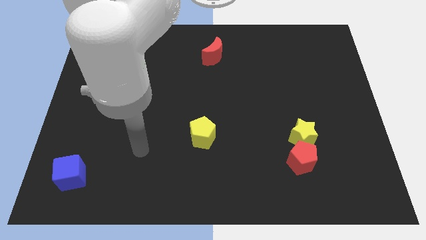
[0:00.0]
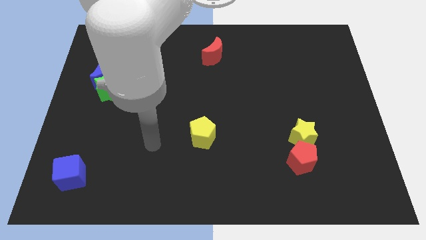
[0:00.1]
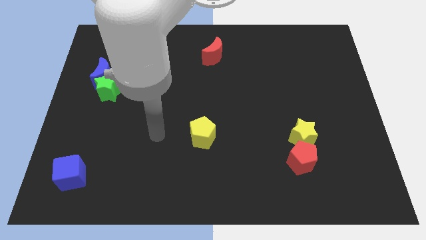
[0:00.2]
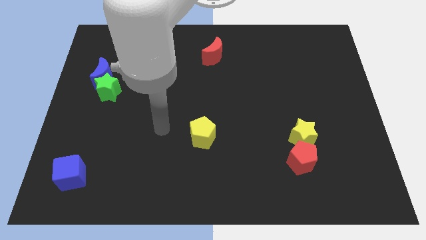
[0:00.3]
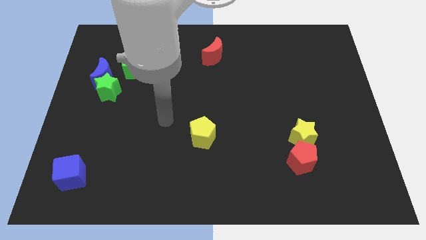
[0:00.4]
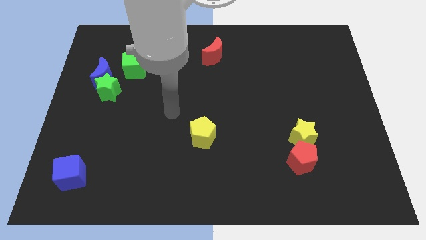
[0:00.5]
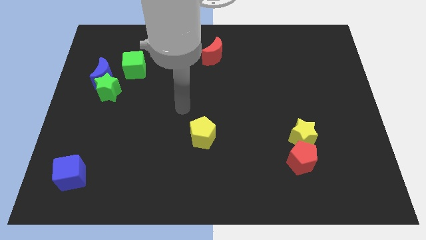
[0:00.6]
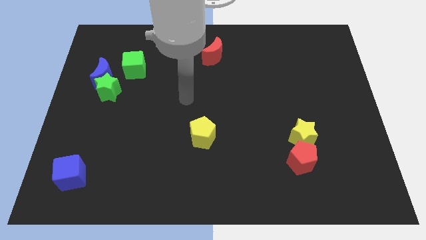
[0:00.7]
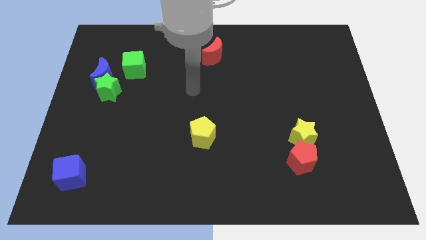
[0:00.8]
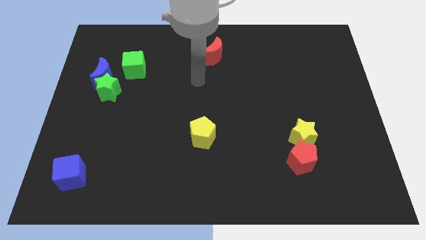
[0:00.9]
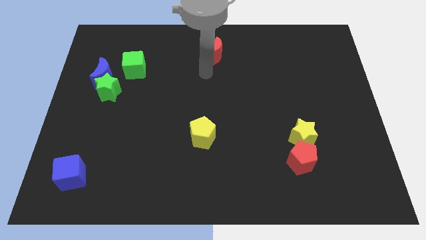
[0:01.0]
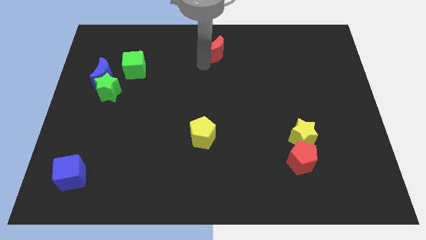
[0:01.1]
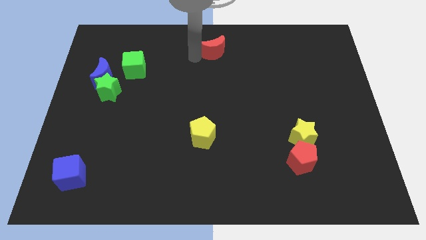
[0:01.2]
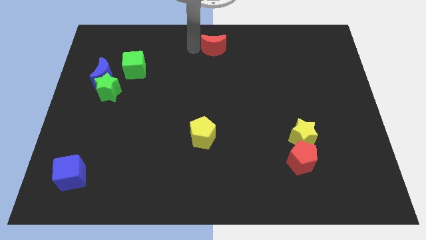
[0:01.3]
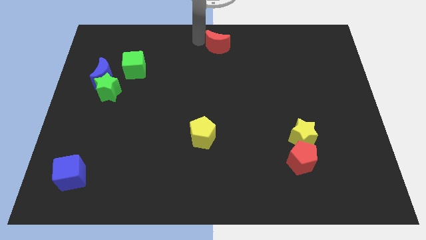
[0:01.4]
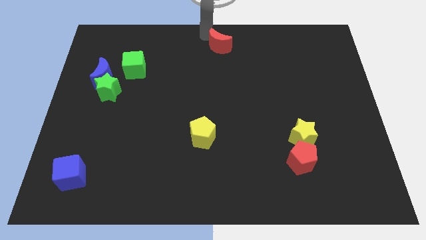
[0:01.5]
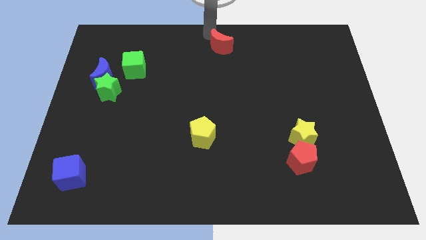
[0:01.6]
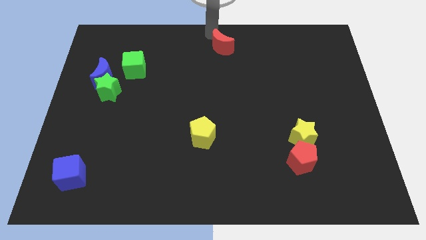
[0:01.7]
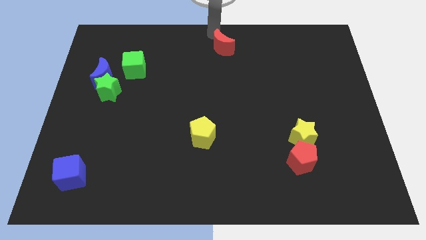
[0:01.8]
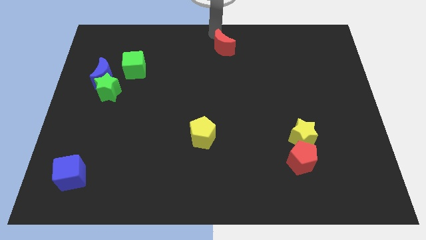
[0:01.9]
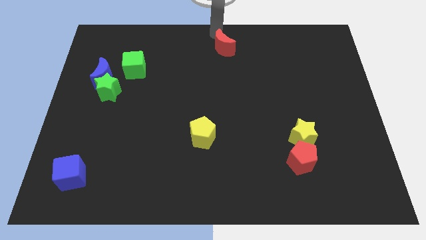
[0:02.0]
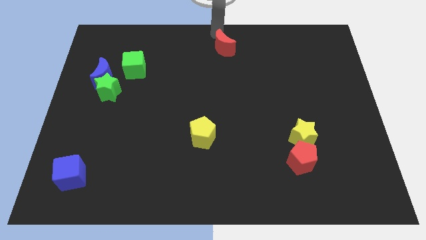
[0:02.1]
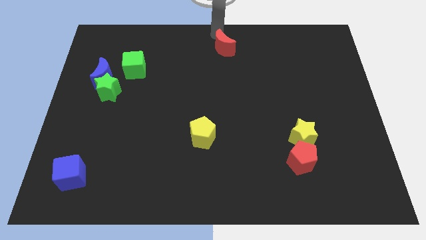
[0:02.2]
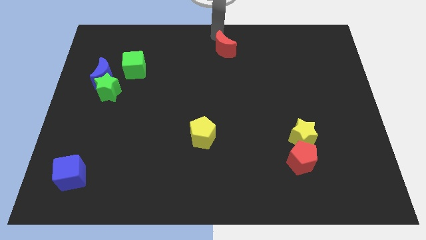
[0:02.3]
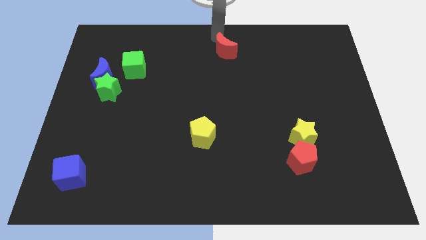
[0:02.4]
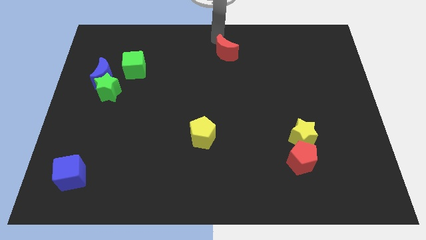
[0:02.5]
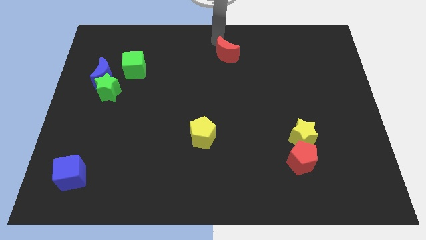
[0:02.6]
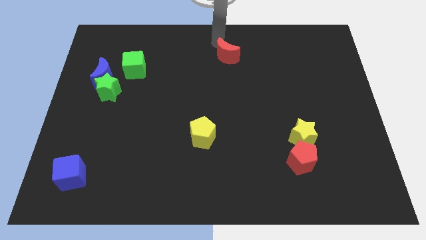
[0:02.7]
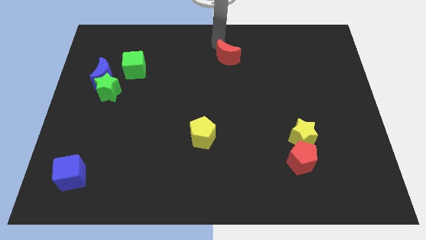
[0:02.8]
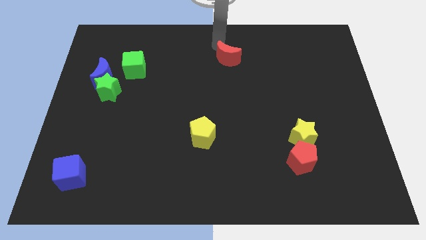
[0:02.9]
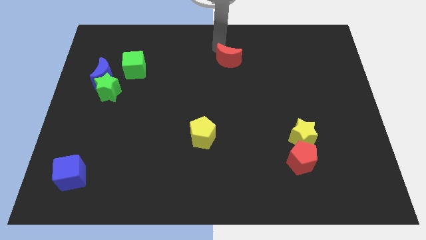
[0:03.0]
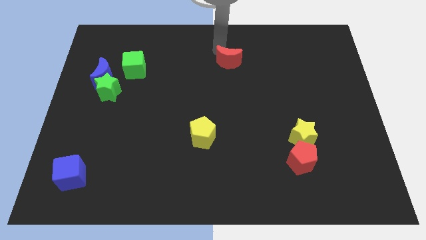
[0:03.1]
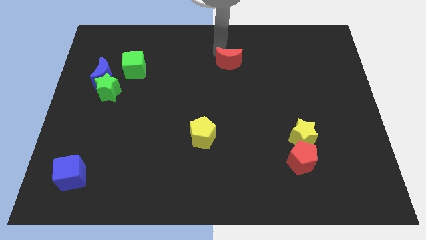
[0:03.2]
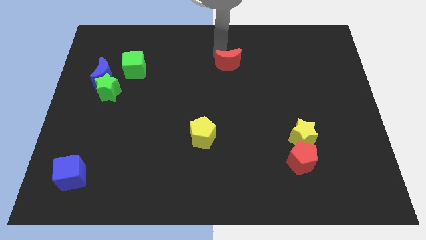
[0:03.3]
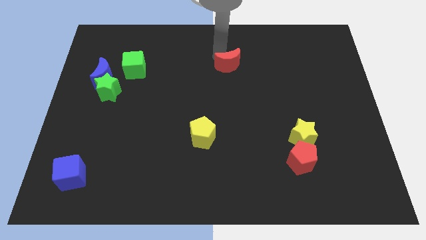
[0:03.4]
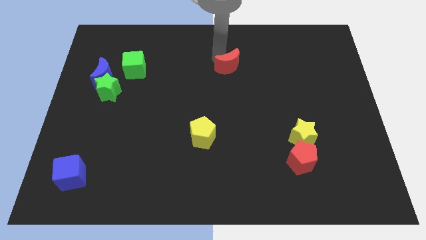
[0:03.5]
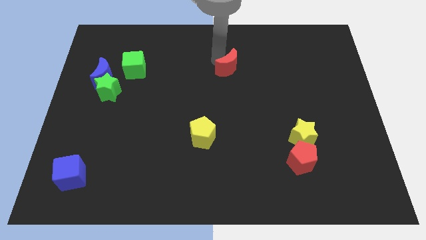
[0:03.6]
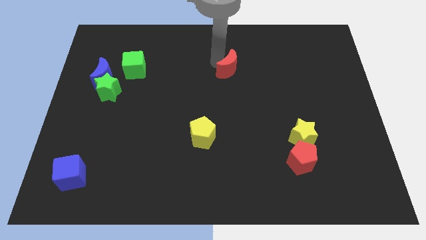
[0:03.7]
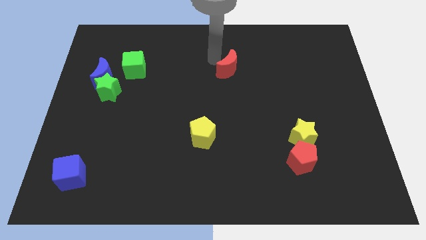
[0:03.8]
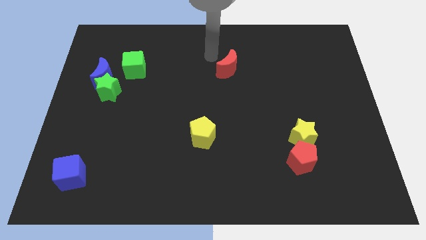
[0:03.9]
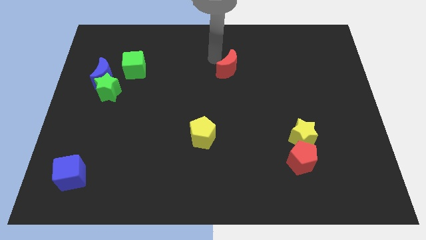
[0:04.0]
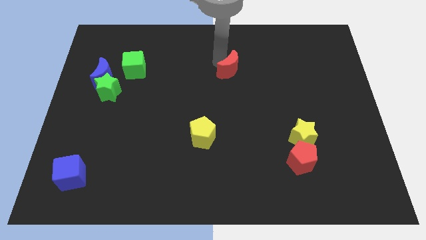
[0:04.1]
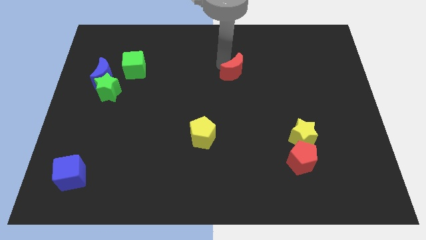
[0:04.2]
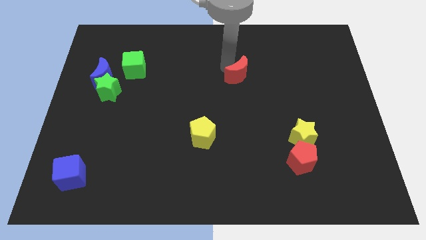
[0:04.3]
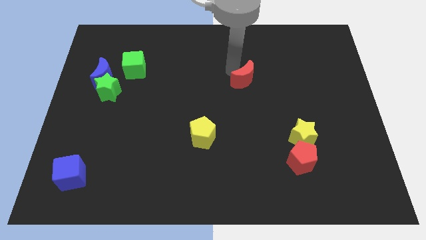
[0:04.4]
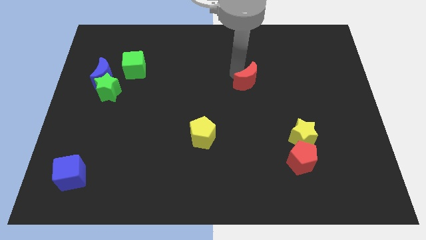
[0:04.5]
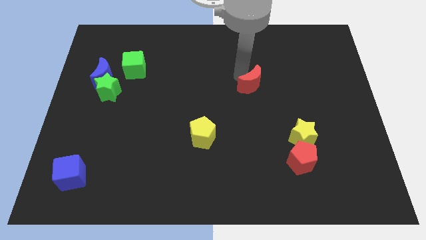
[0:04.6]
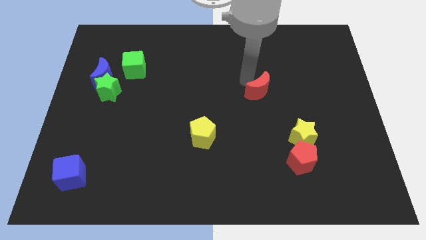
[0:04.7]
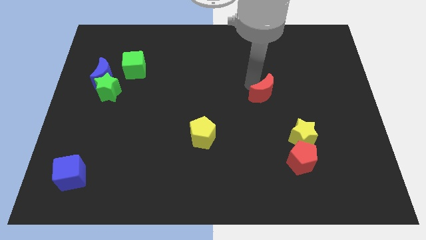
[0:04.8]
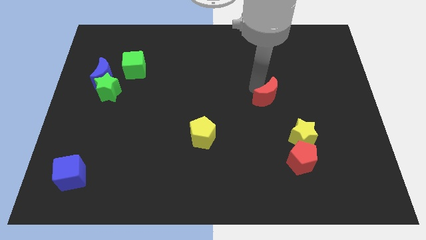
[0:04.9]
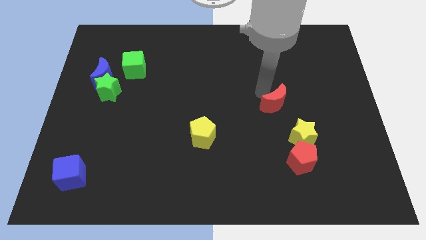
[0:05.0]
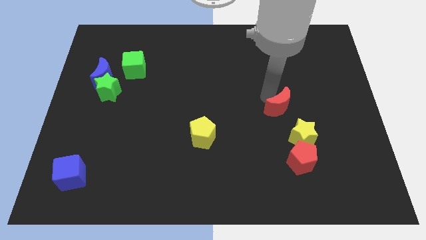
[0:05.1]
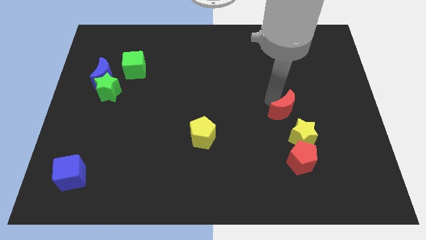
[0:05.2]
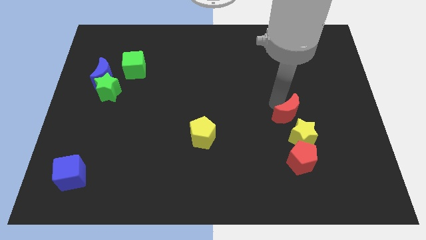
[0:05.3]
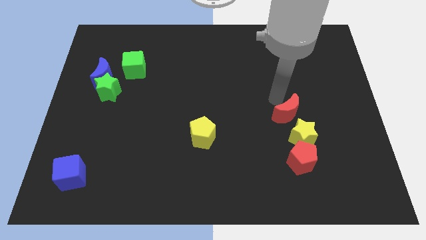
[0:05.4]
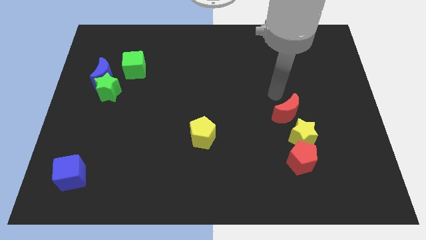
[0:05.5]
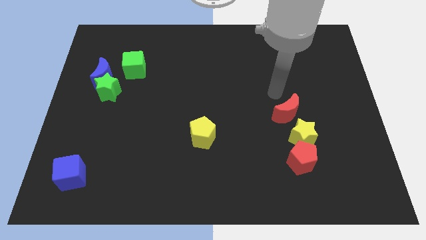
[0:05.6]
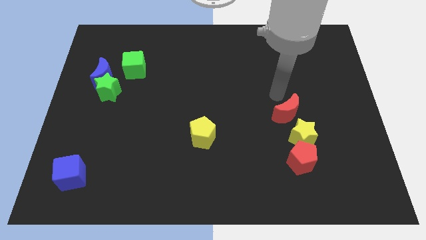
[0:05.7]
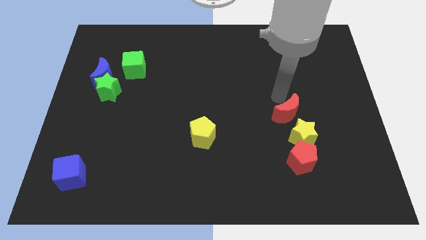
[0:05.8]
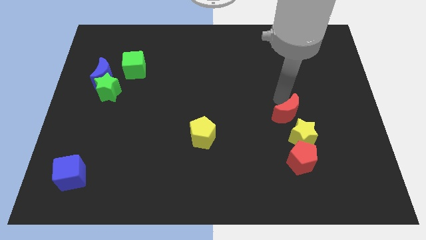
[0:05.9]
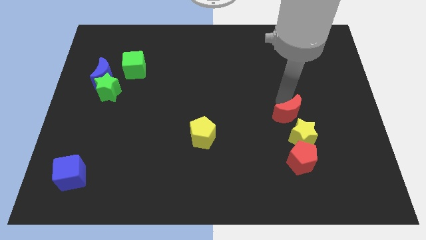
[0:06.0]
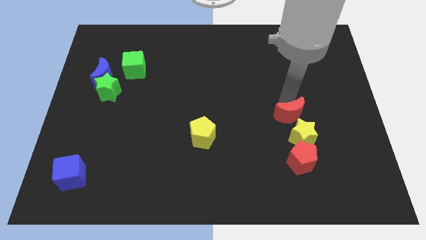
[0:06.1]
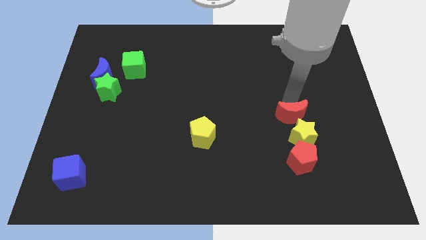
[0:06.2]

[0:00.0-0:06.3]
slide the red moon close to the yellow star

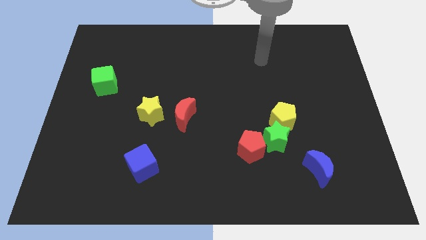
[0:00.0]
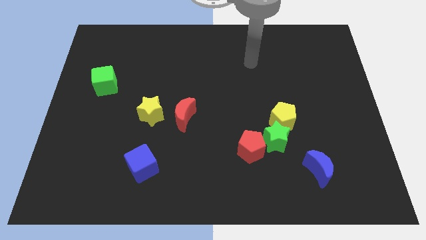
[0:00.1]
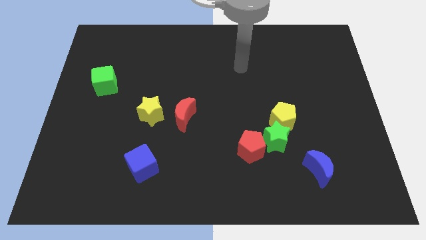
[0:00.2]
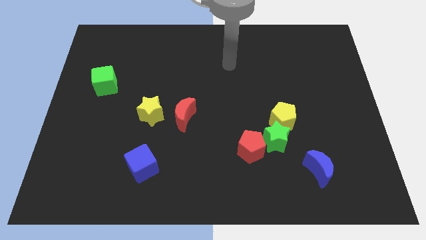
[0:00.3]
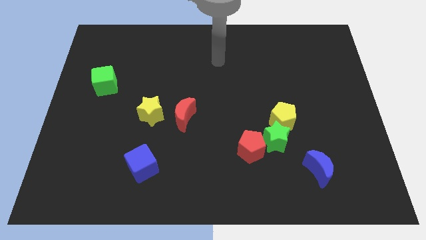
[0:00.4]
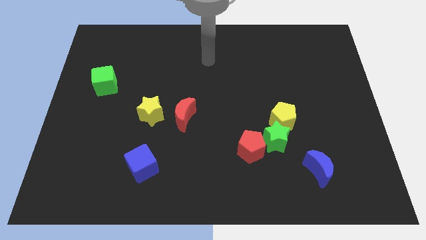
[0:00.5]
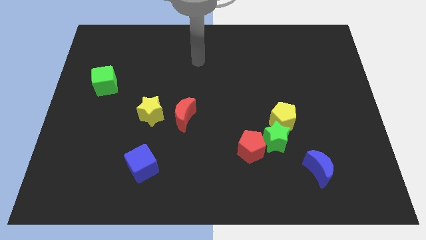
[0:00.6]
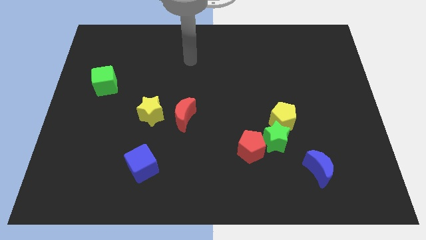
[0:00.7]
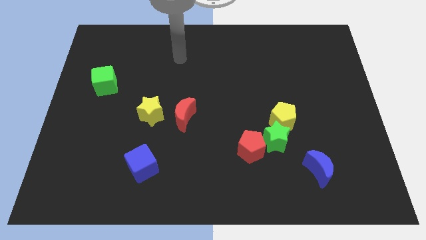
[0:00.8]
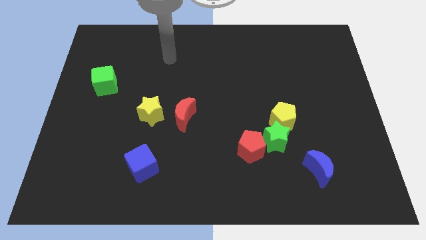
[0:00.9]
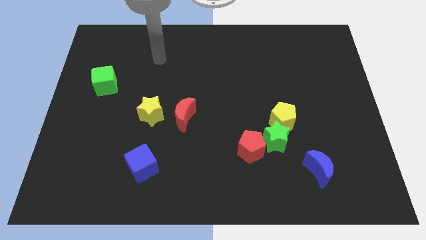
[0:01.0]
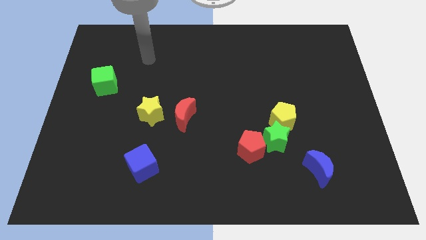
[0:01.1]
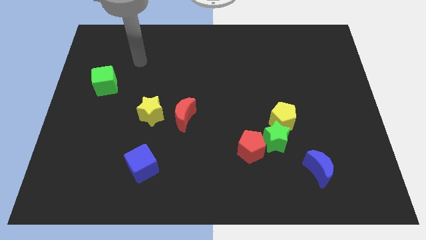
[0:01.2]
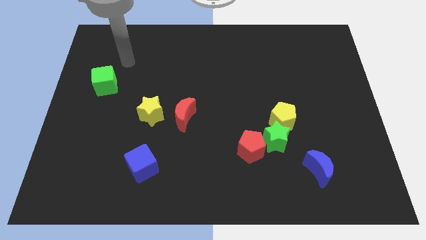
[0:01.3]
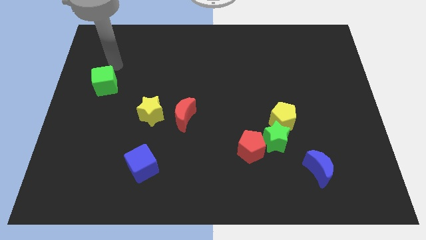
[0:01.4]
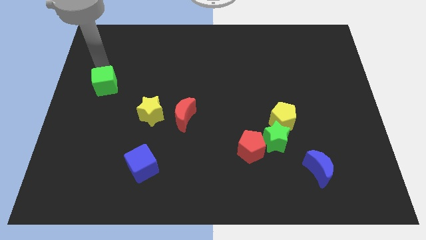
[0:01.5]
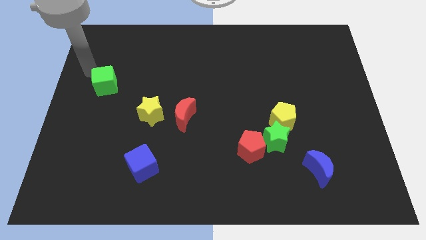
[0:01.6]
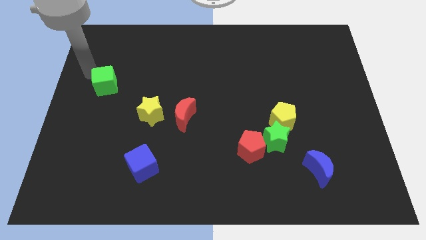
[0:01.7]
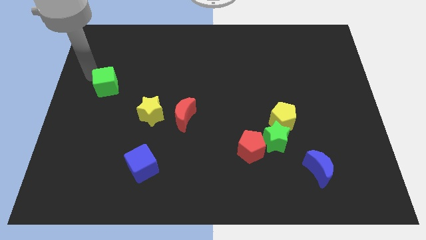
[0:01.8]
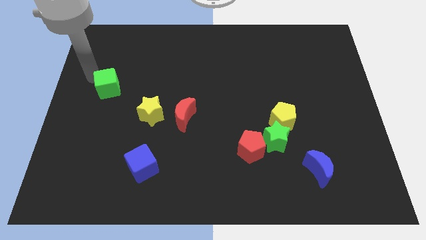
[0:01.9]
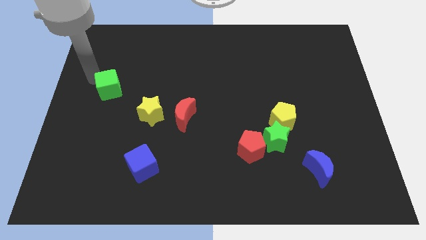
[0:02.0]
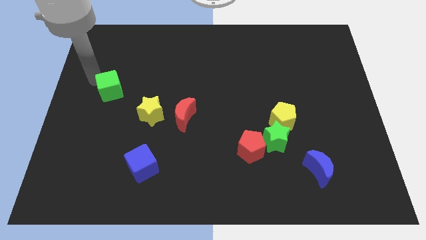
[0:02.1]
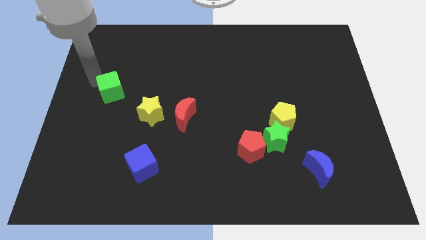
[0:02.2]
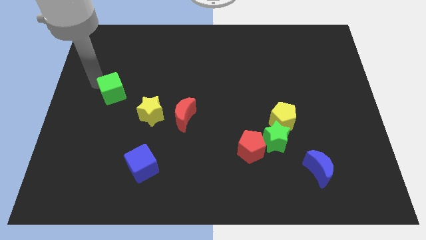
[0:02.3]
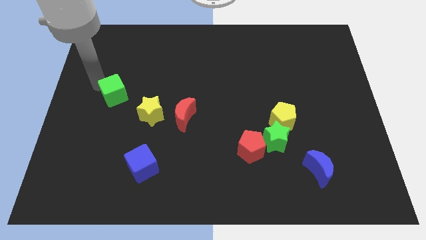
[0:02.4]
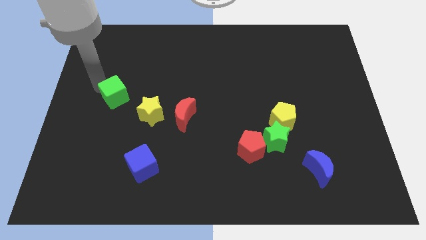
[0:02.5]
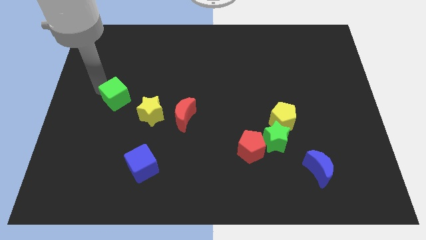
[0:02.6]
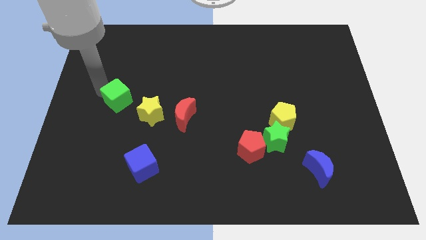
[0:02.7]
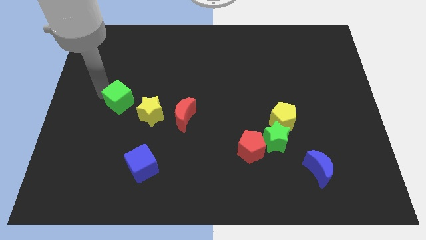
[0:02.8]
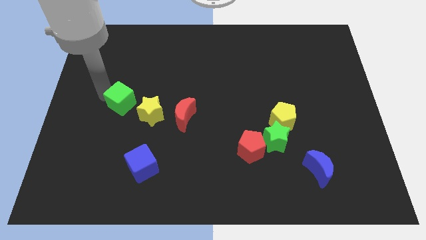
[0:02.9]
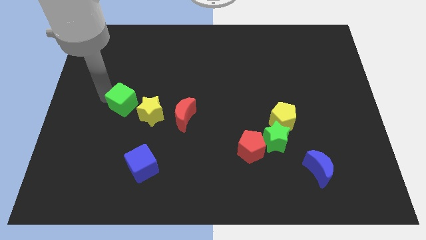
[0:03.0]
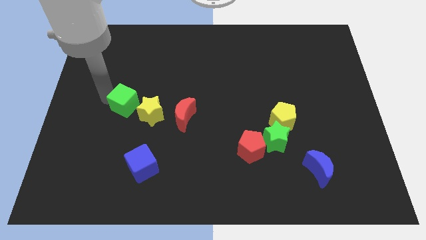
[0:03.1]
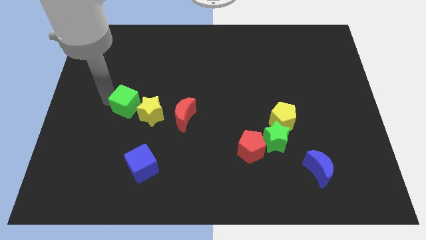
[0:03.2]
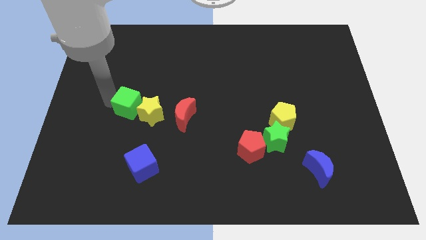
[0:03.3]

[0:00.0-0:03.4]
put the green cube close to the yellow star
